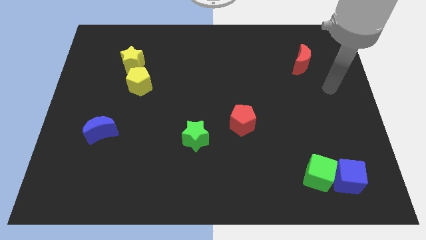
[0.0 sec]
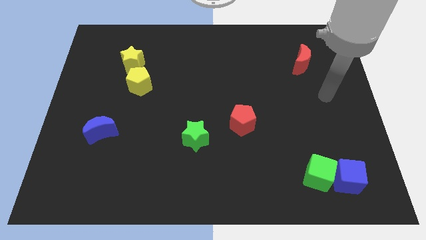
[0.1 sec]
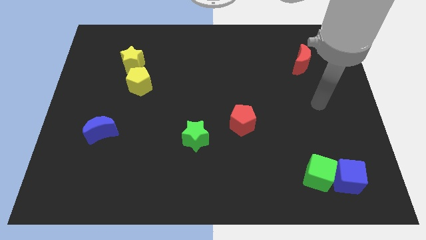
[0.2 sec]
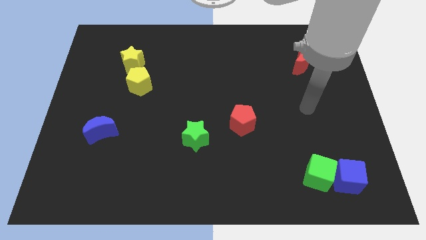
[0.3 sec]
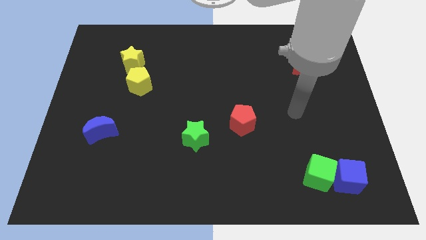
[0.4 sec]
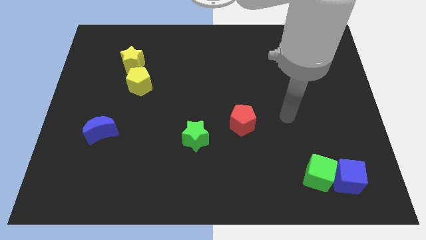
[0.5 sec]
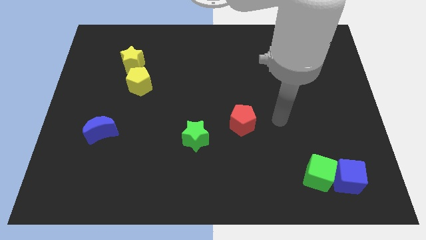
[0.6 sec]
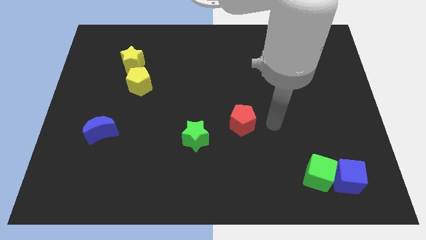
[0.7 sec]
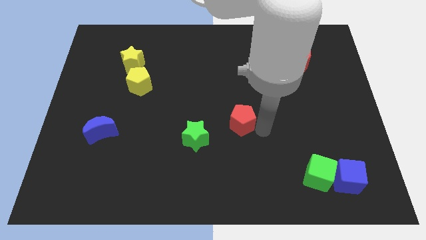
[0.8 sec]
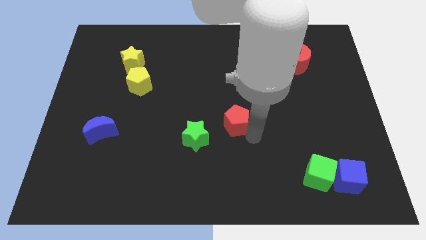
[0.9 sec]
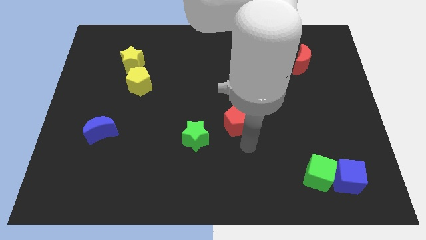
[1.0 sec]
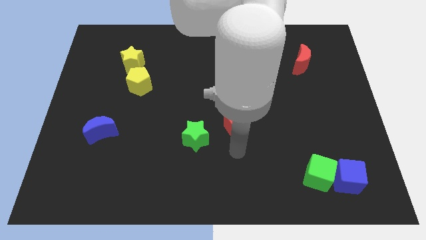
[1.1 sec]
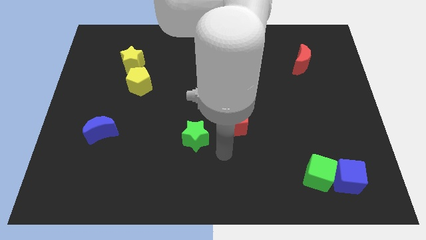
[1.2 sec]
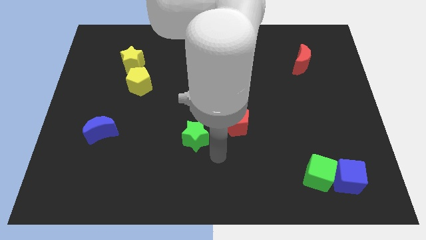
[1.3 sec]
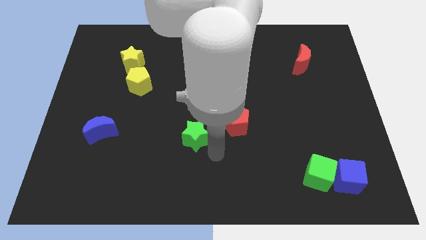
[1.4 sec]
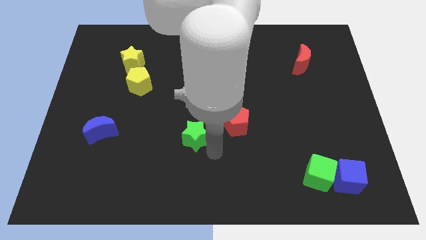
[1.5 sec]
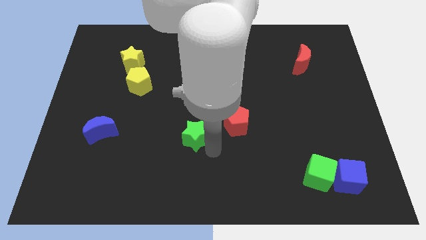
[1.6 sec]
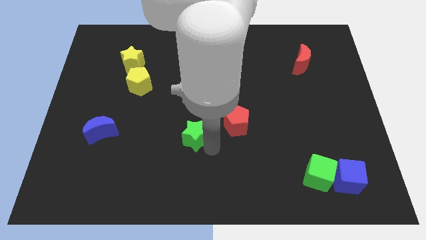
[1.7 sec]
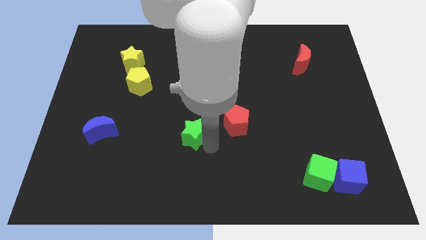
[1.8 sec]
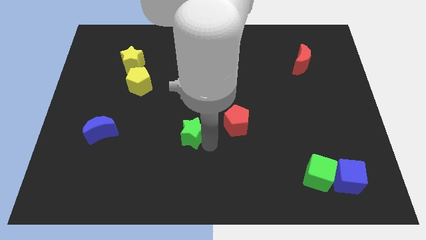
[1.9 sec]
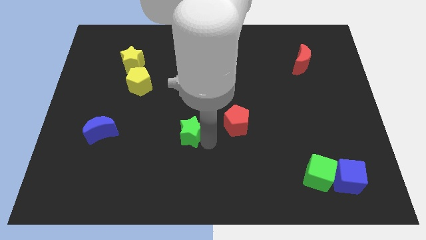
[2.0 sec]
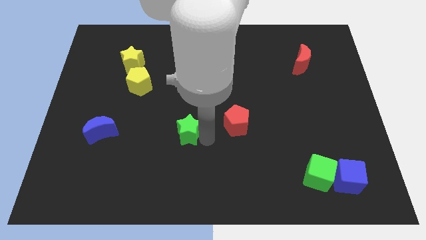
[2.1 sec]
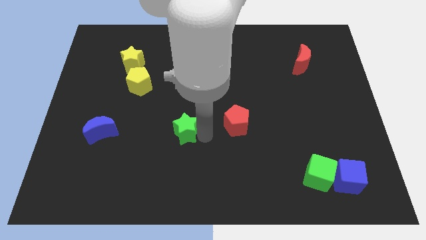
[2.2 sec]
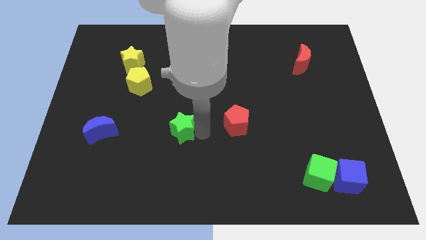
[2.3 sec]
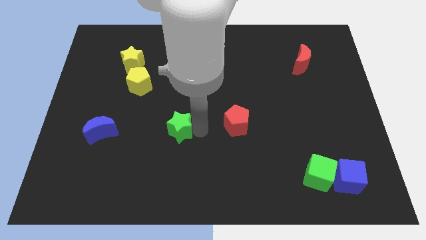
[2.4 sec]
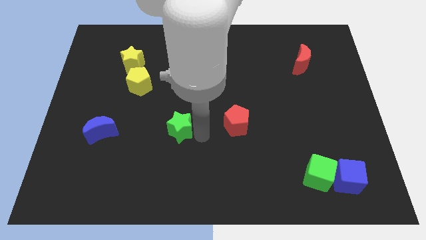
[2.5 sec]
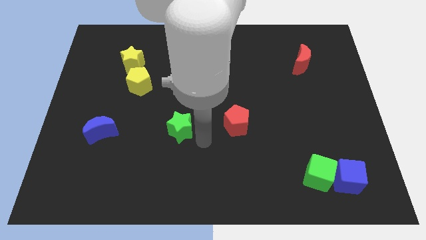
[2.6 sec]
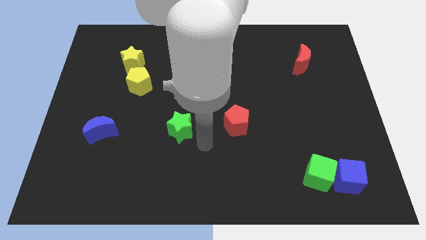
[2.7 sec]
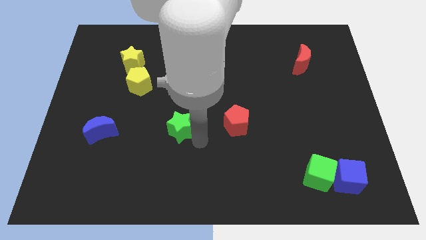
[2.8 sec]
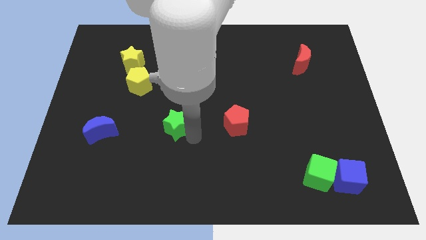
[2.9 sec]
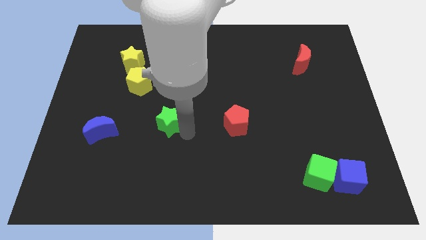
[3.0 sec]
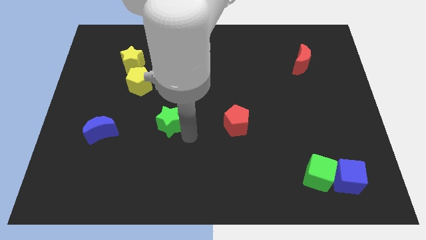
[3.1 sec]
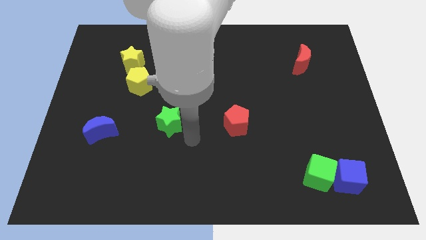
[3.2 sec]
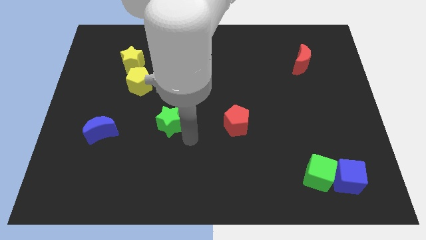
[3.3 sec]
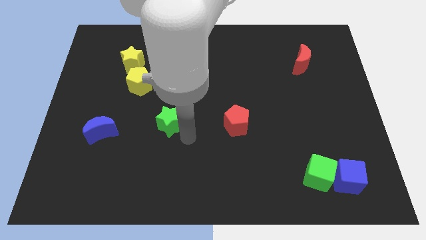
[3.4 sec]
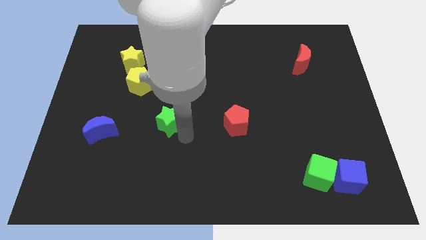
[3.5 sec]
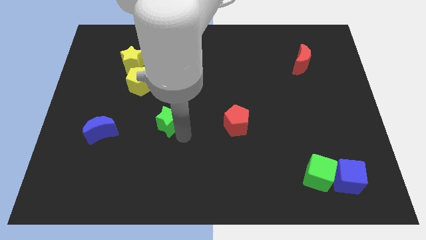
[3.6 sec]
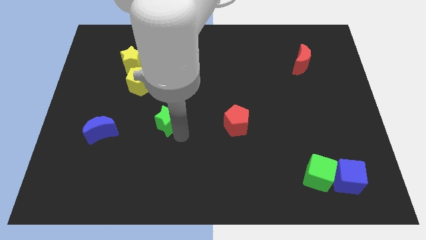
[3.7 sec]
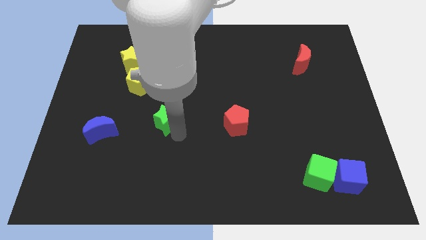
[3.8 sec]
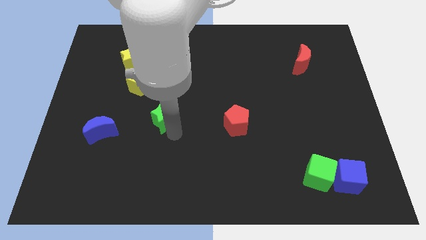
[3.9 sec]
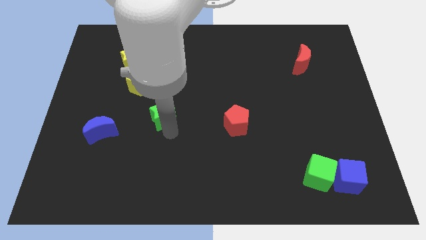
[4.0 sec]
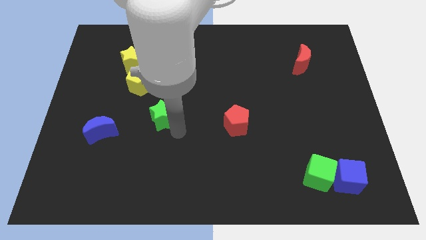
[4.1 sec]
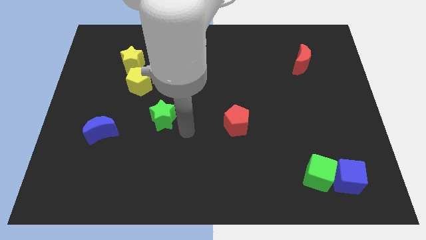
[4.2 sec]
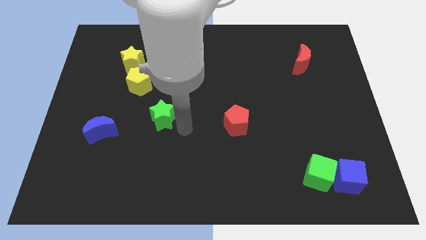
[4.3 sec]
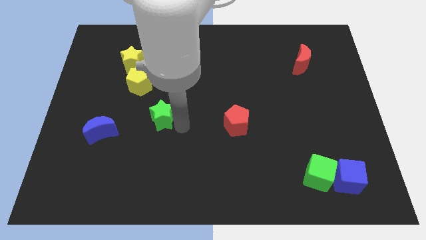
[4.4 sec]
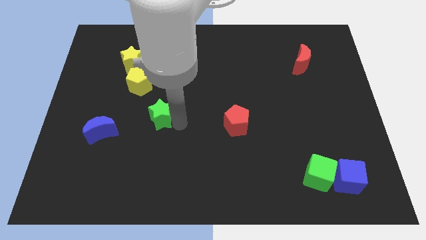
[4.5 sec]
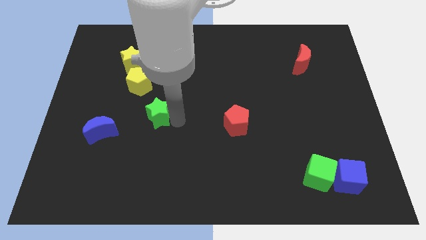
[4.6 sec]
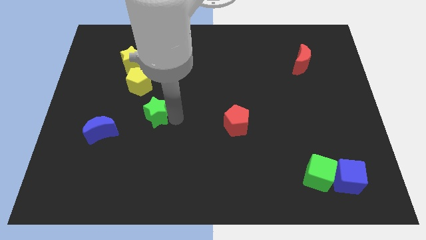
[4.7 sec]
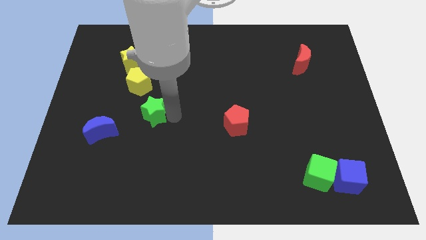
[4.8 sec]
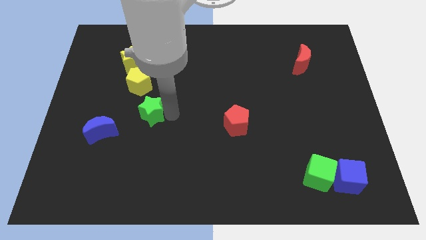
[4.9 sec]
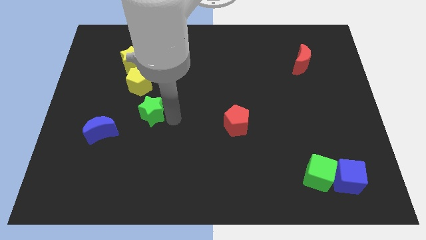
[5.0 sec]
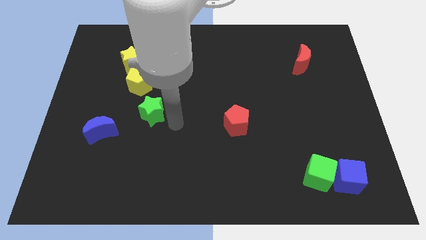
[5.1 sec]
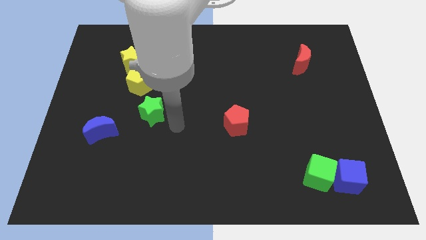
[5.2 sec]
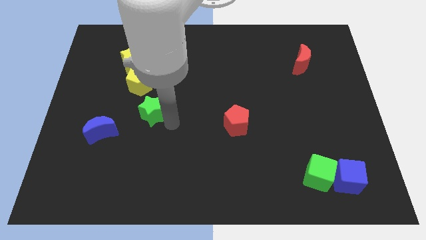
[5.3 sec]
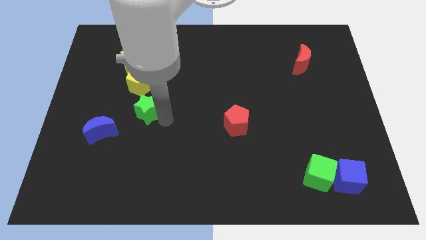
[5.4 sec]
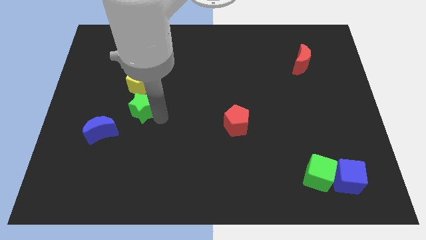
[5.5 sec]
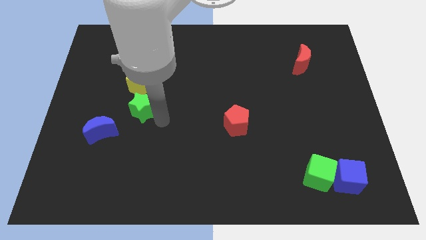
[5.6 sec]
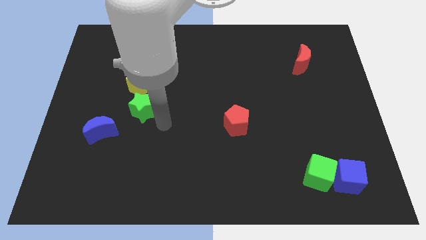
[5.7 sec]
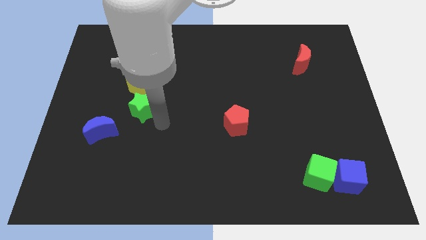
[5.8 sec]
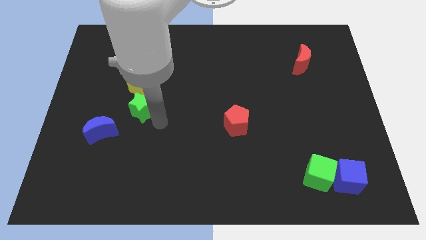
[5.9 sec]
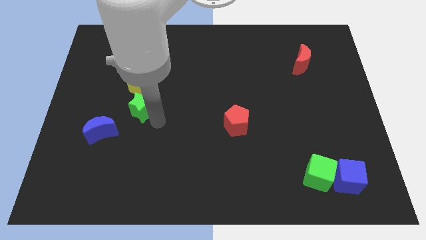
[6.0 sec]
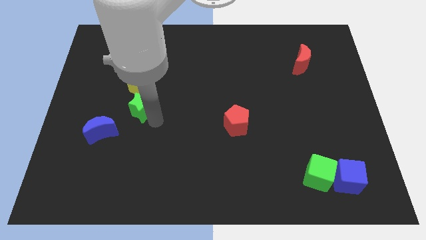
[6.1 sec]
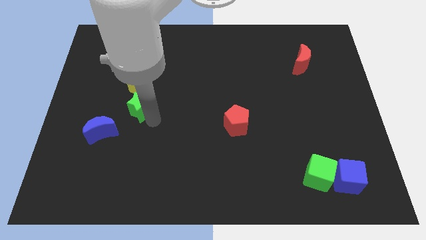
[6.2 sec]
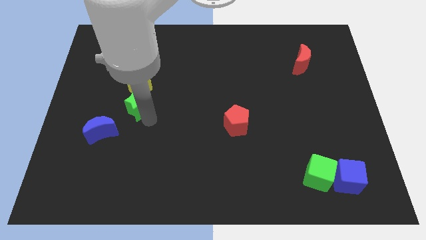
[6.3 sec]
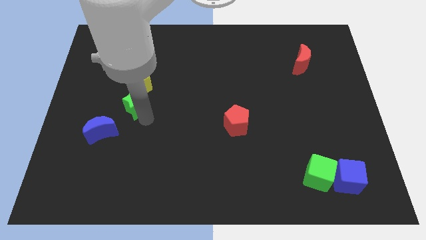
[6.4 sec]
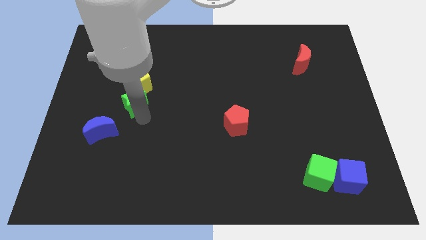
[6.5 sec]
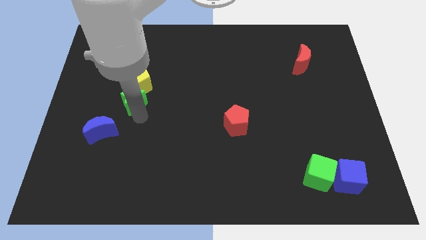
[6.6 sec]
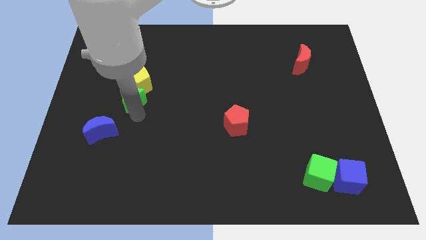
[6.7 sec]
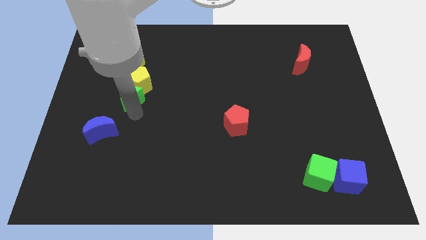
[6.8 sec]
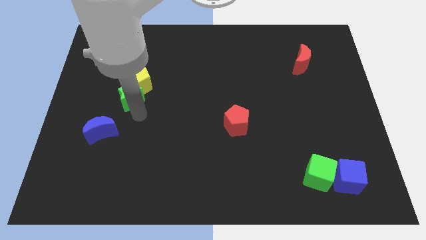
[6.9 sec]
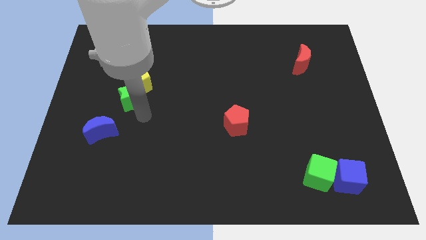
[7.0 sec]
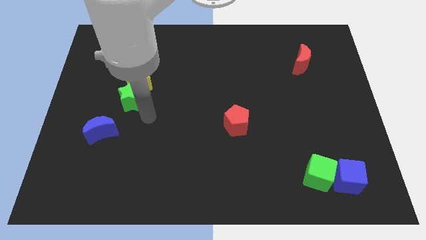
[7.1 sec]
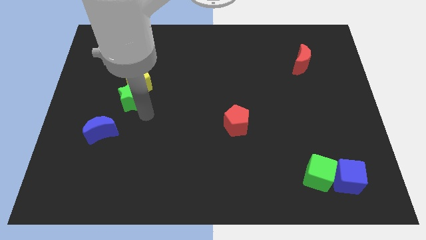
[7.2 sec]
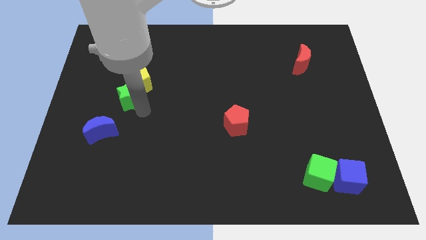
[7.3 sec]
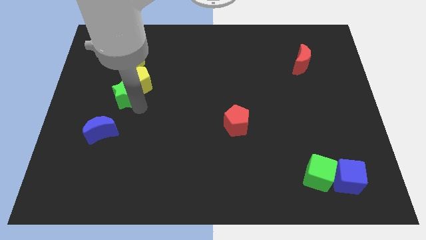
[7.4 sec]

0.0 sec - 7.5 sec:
push the green star upwards and left diagonally

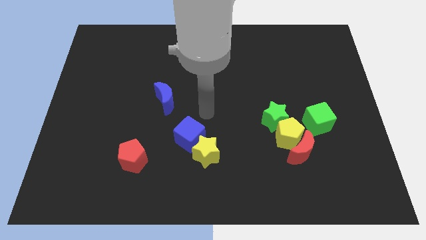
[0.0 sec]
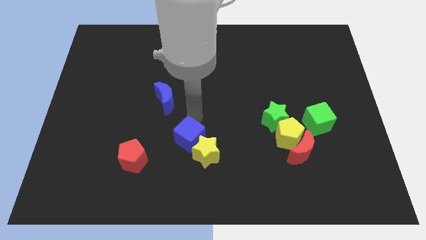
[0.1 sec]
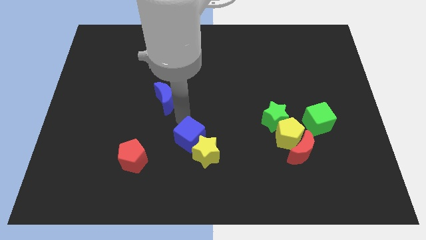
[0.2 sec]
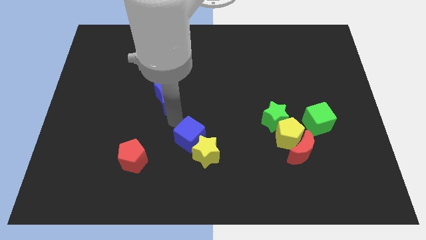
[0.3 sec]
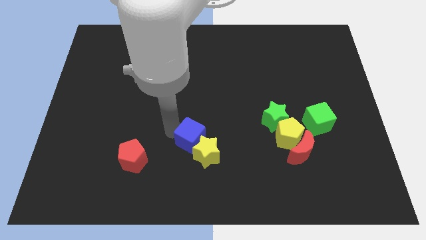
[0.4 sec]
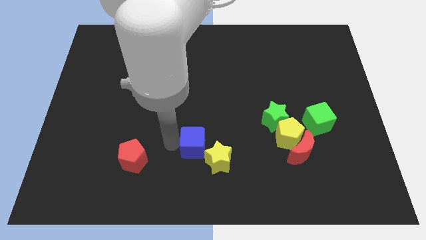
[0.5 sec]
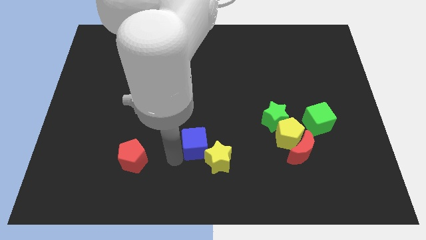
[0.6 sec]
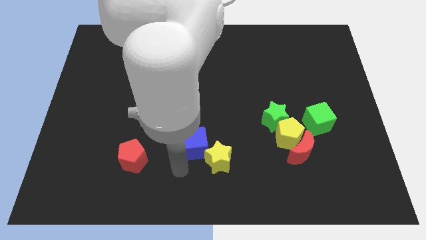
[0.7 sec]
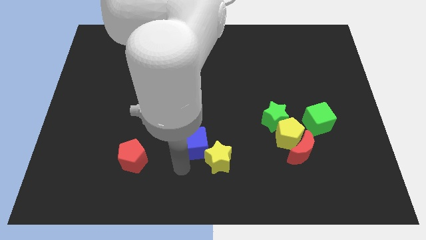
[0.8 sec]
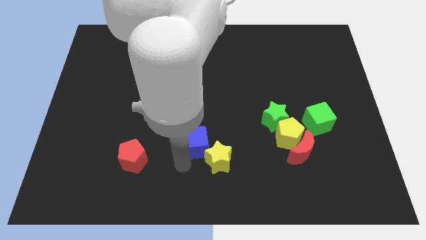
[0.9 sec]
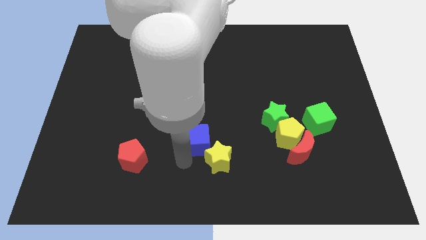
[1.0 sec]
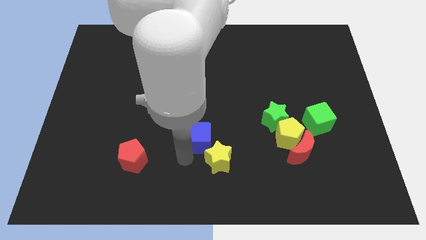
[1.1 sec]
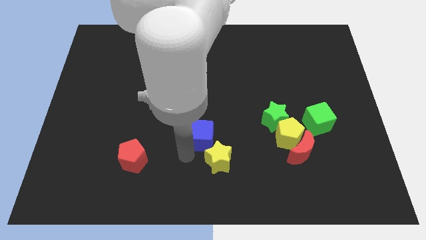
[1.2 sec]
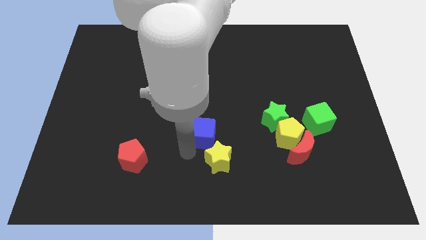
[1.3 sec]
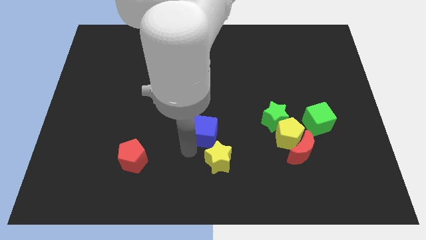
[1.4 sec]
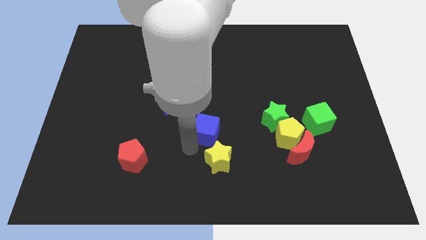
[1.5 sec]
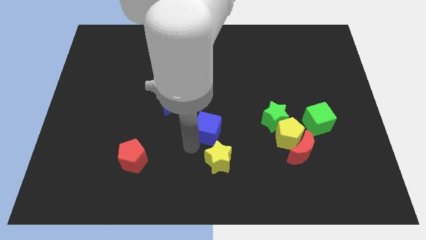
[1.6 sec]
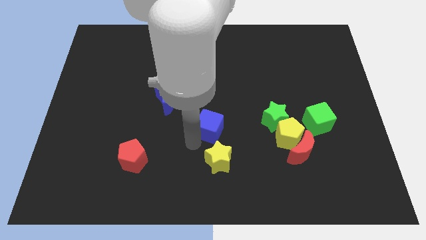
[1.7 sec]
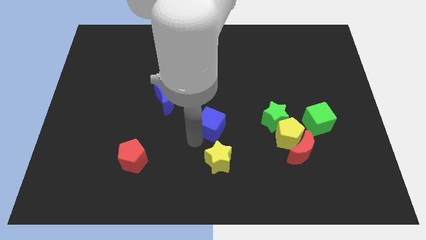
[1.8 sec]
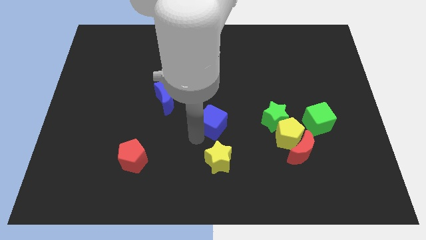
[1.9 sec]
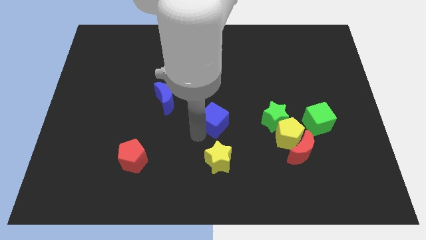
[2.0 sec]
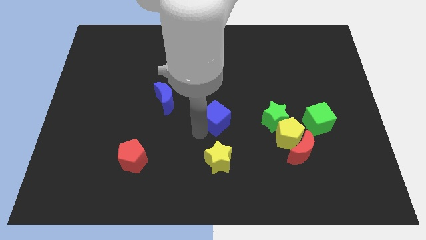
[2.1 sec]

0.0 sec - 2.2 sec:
slide the blue cube up and right diagonally a bit
